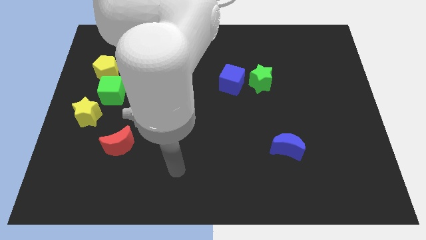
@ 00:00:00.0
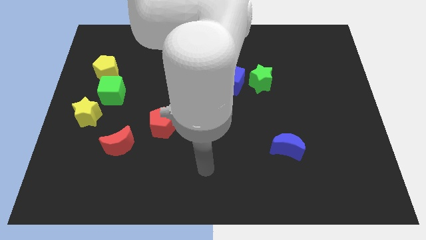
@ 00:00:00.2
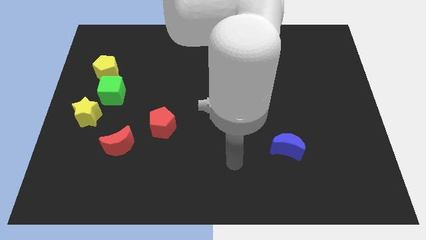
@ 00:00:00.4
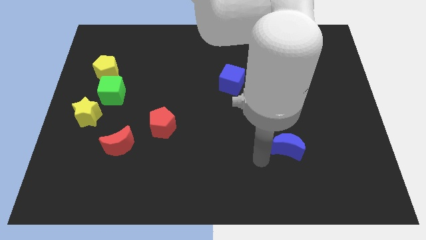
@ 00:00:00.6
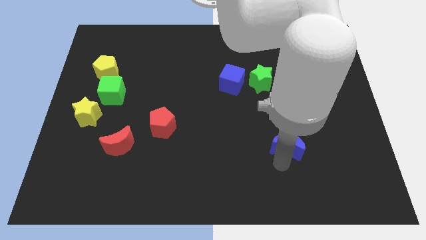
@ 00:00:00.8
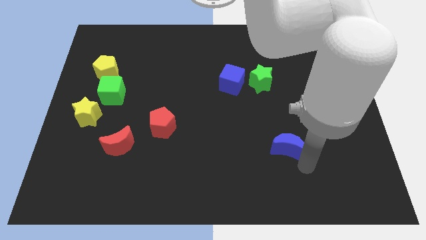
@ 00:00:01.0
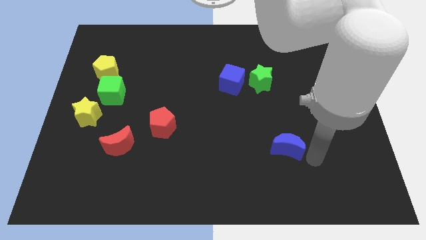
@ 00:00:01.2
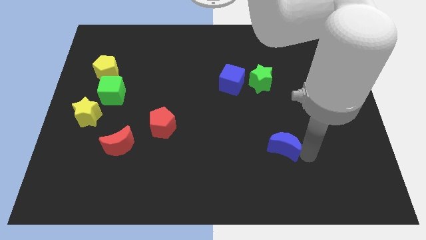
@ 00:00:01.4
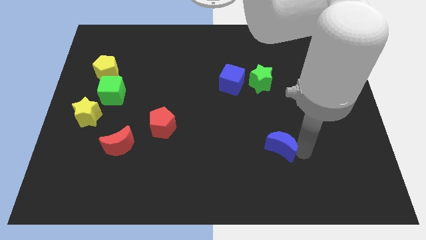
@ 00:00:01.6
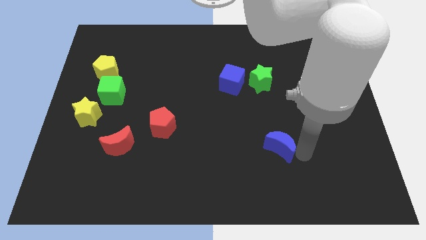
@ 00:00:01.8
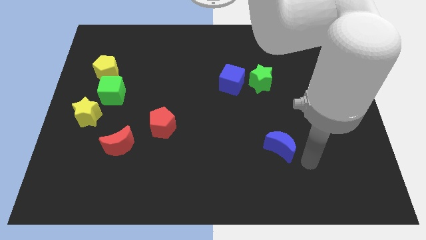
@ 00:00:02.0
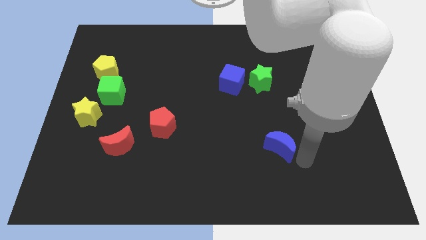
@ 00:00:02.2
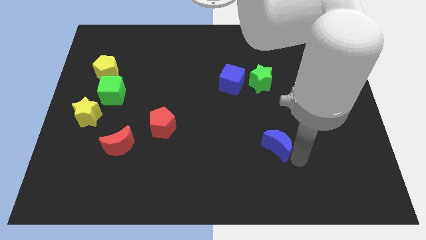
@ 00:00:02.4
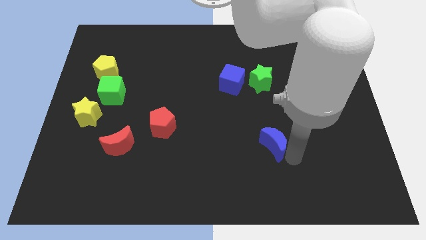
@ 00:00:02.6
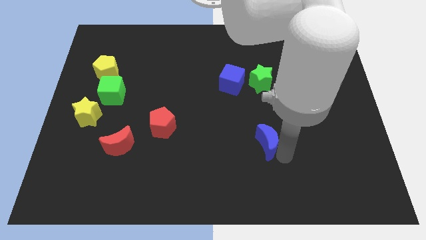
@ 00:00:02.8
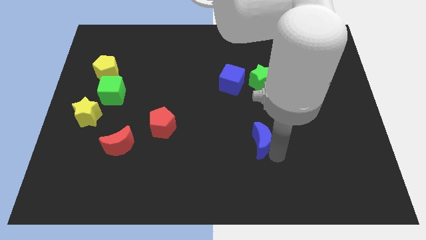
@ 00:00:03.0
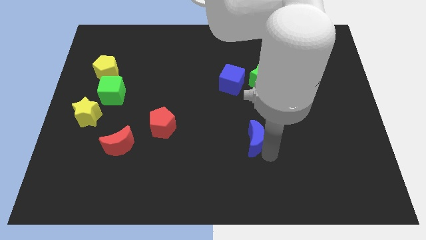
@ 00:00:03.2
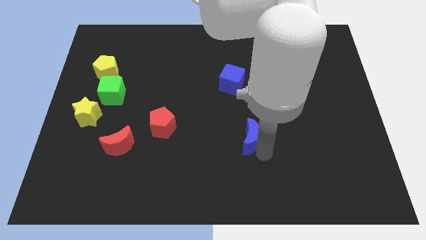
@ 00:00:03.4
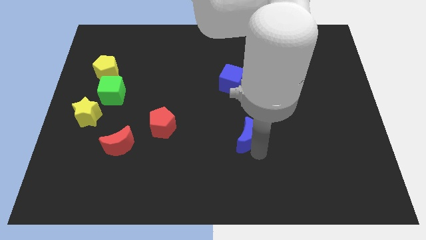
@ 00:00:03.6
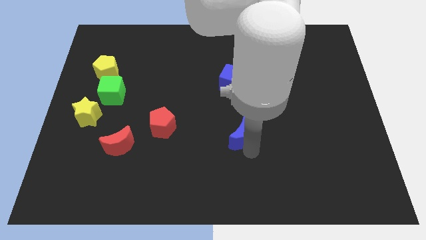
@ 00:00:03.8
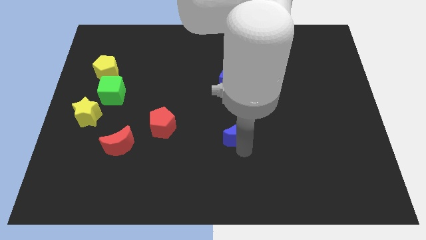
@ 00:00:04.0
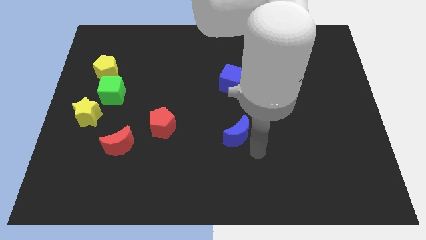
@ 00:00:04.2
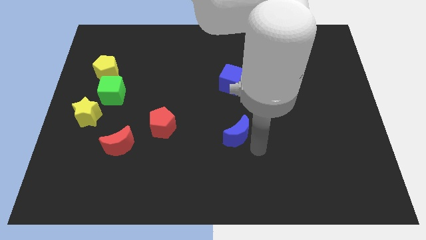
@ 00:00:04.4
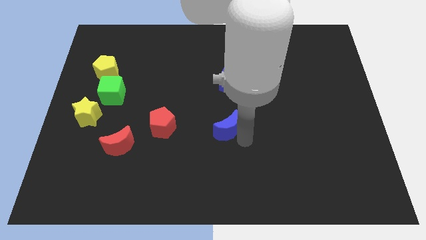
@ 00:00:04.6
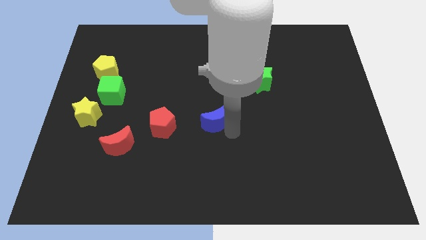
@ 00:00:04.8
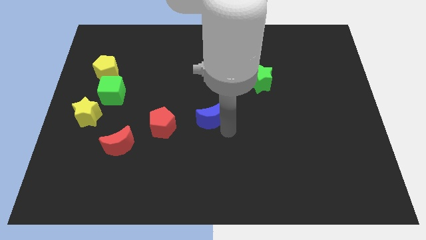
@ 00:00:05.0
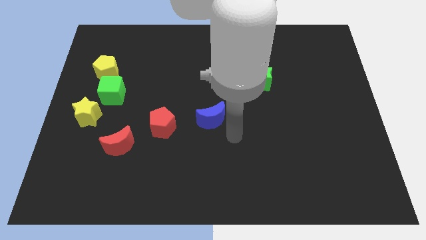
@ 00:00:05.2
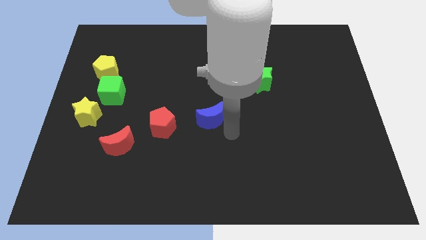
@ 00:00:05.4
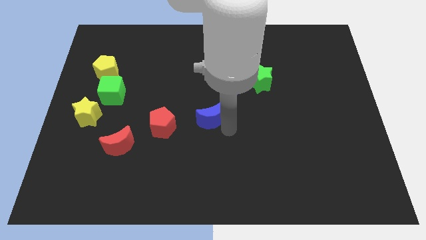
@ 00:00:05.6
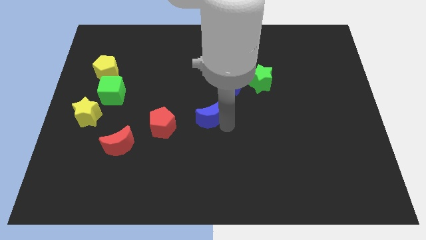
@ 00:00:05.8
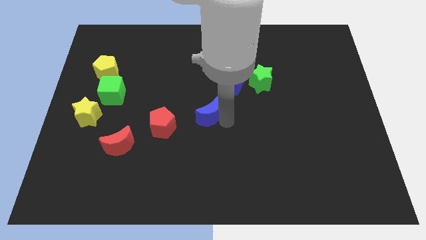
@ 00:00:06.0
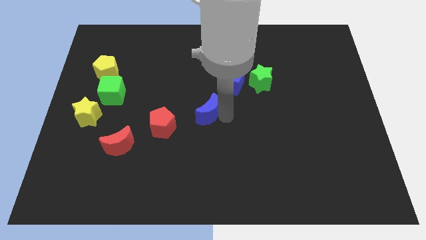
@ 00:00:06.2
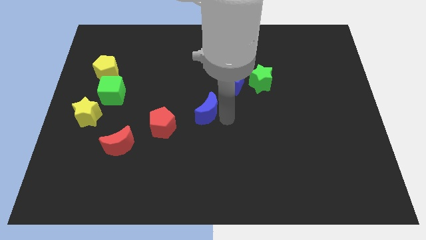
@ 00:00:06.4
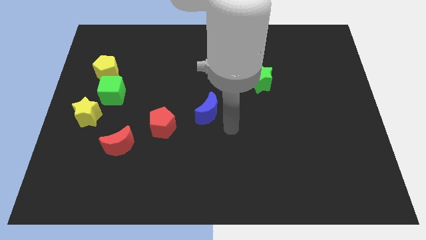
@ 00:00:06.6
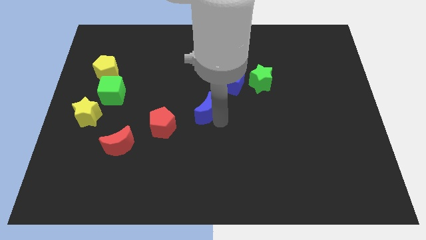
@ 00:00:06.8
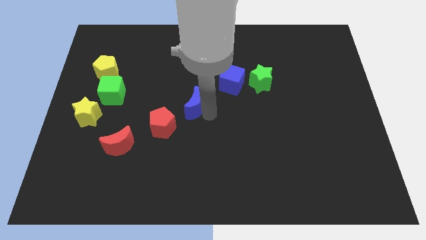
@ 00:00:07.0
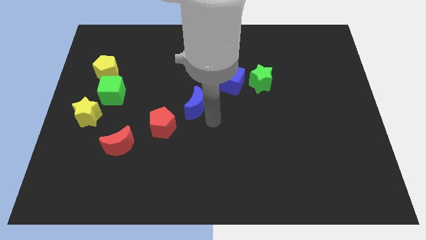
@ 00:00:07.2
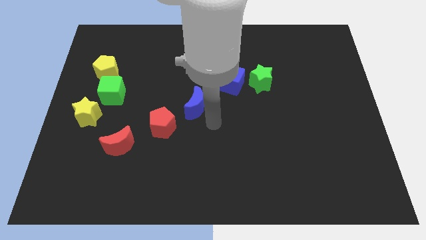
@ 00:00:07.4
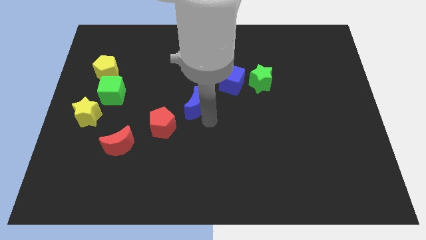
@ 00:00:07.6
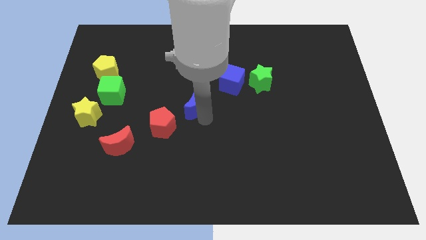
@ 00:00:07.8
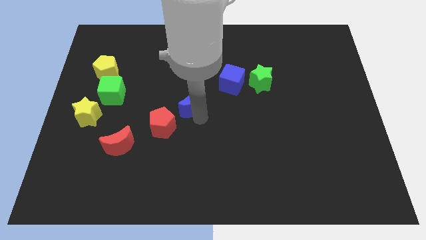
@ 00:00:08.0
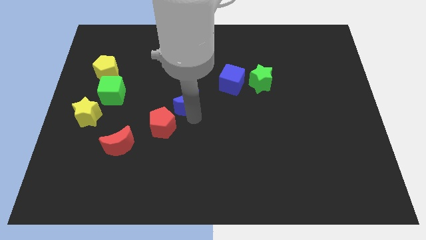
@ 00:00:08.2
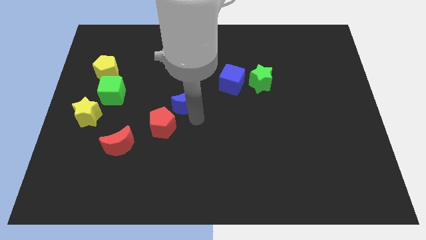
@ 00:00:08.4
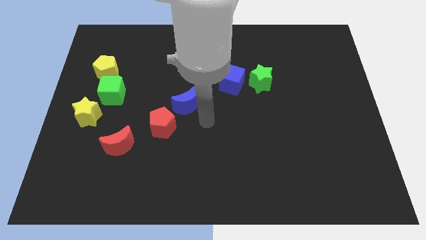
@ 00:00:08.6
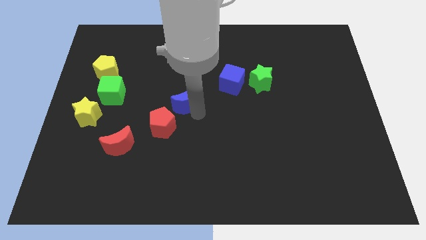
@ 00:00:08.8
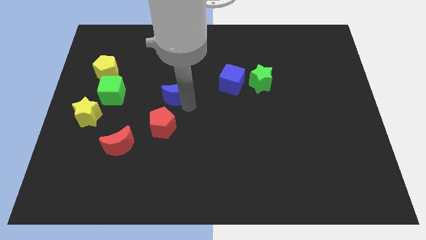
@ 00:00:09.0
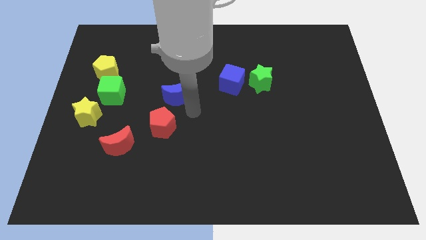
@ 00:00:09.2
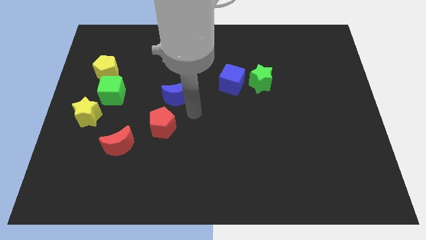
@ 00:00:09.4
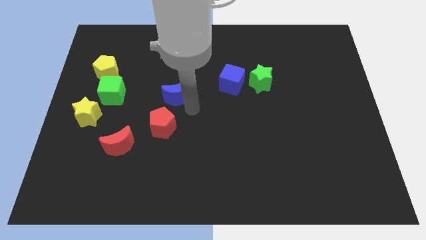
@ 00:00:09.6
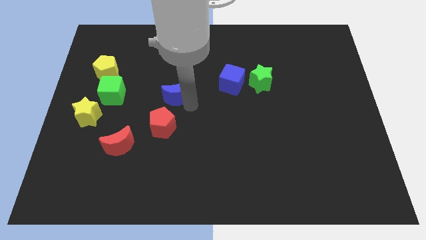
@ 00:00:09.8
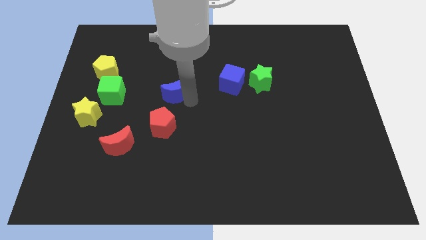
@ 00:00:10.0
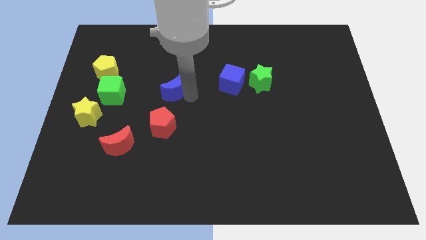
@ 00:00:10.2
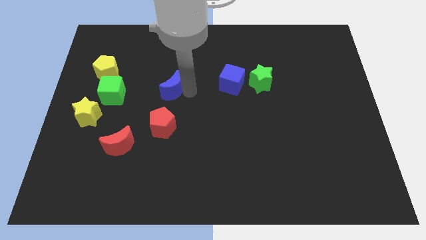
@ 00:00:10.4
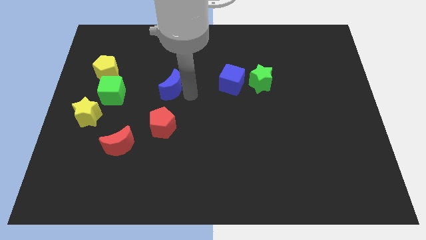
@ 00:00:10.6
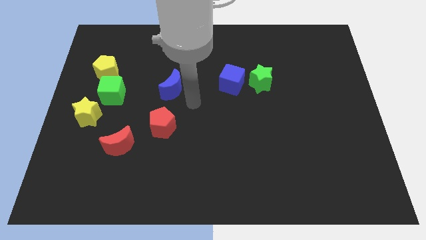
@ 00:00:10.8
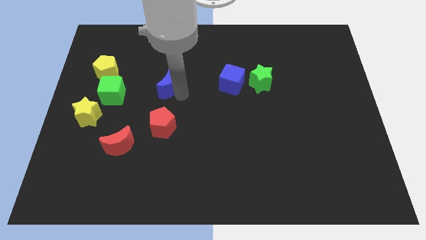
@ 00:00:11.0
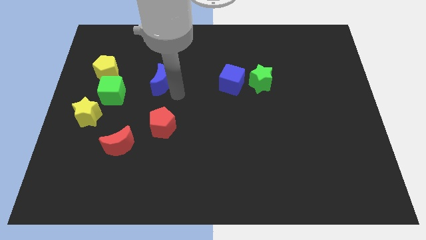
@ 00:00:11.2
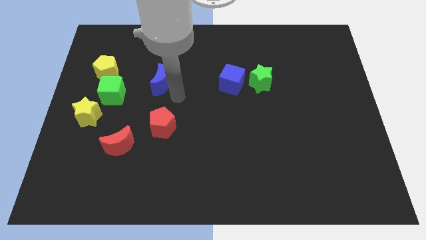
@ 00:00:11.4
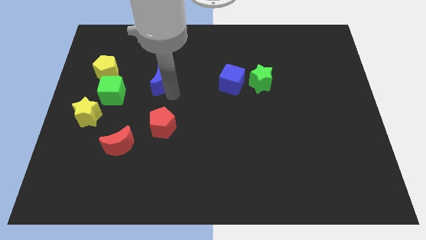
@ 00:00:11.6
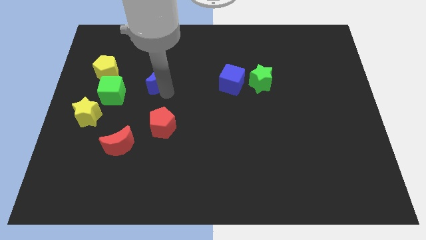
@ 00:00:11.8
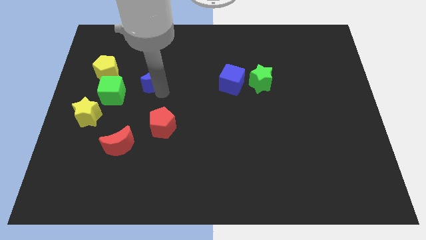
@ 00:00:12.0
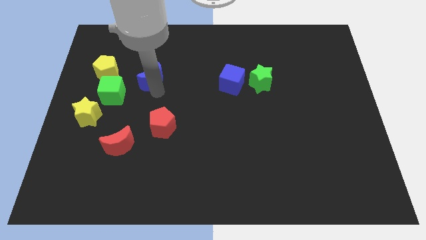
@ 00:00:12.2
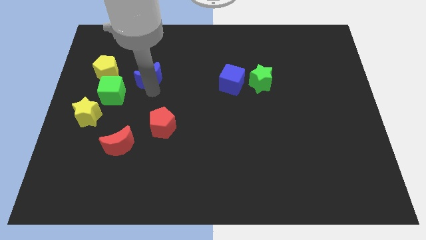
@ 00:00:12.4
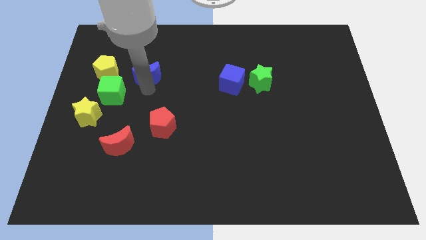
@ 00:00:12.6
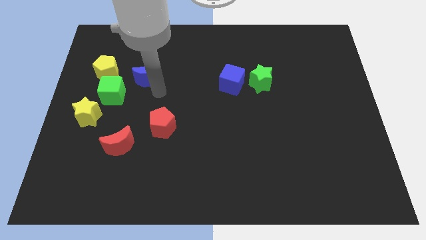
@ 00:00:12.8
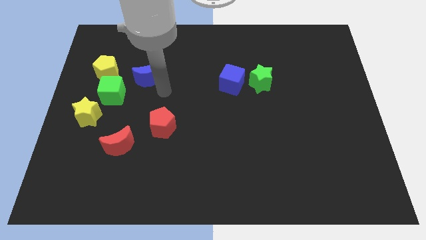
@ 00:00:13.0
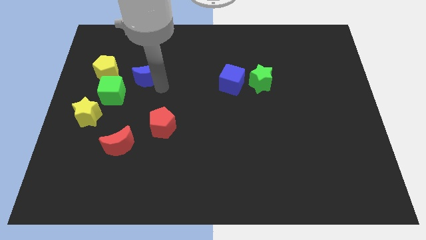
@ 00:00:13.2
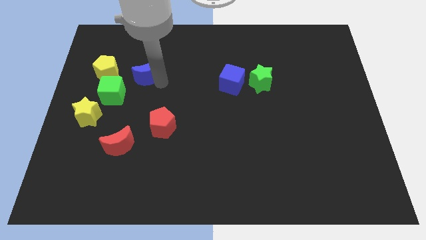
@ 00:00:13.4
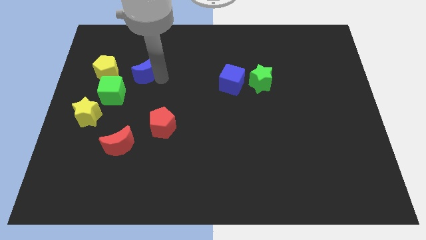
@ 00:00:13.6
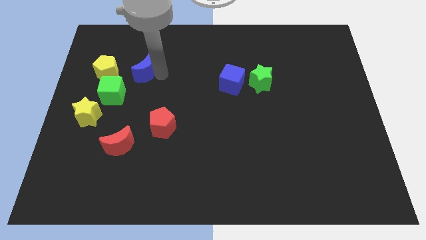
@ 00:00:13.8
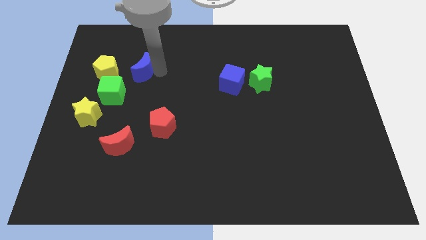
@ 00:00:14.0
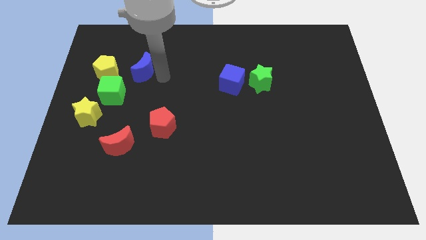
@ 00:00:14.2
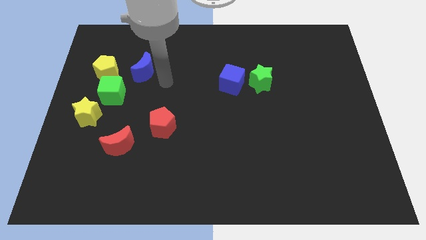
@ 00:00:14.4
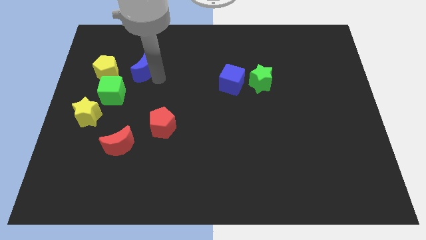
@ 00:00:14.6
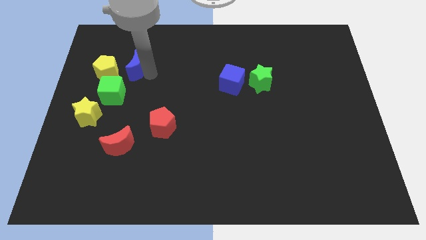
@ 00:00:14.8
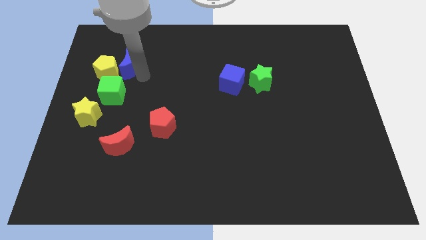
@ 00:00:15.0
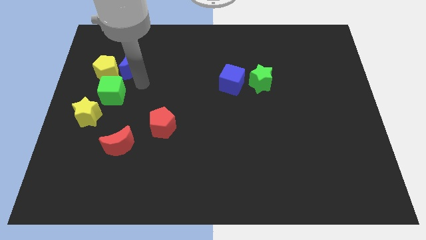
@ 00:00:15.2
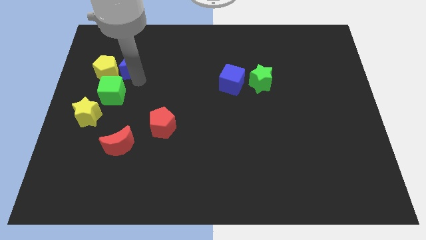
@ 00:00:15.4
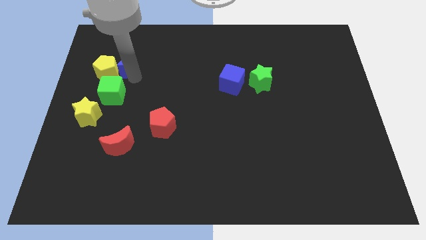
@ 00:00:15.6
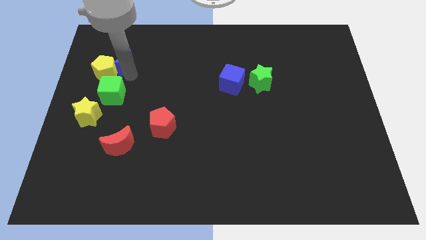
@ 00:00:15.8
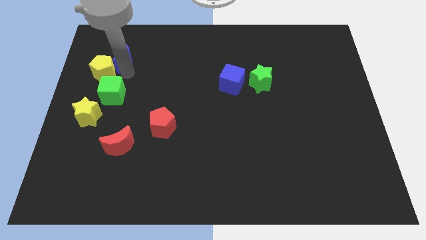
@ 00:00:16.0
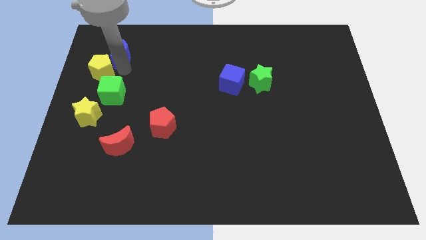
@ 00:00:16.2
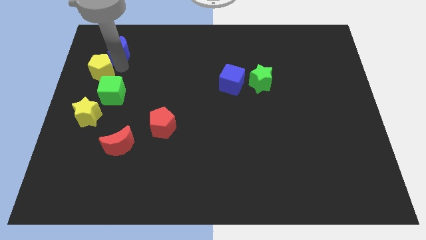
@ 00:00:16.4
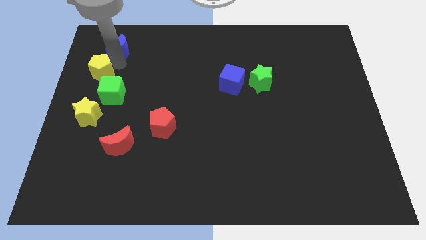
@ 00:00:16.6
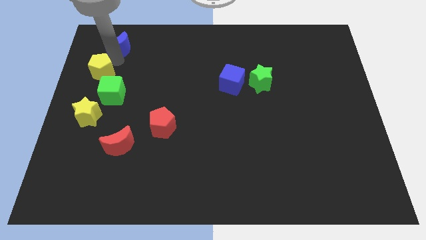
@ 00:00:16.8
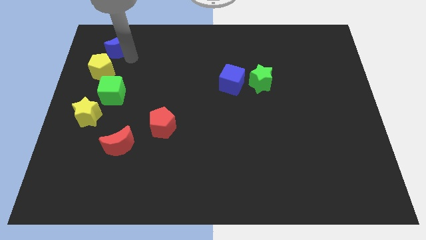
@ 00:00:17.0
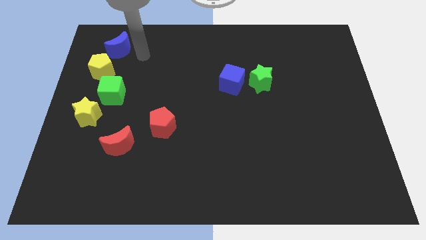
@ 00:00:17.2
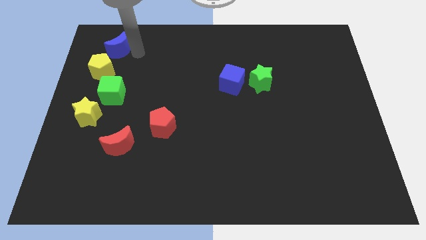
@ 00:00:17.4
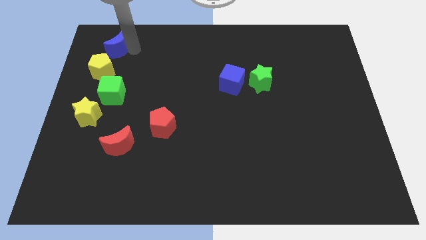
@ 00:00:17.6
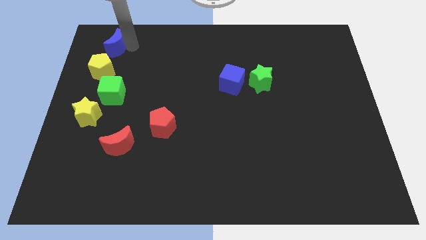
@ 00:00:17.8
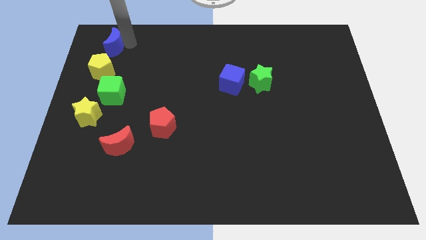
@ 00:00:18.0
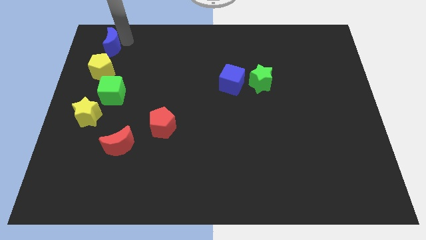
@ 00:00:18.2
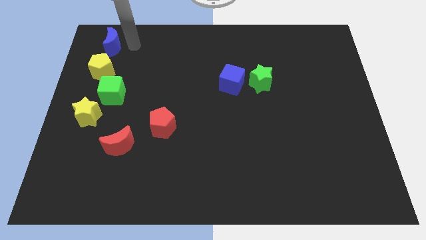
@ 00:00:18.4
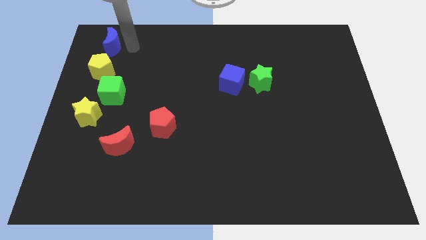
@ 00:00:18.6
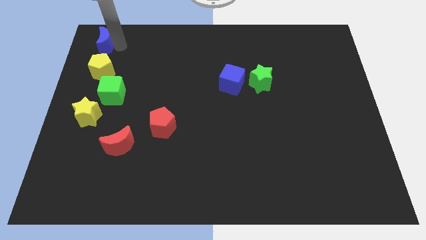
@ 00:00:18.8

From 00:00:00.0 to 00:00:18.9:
move the blue moon to the top left corner
